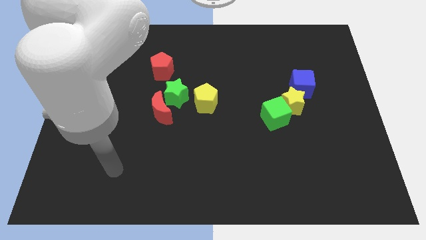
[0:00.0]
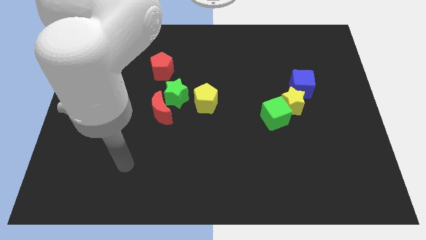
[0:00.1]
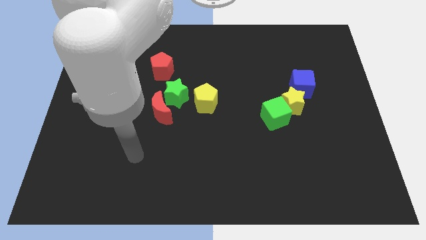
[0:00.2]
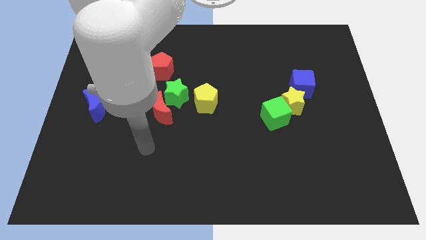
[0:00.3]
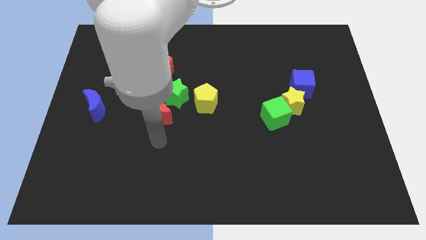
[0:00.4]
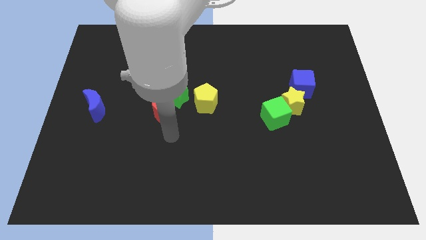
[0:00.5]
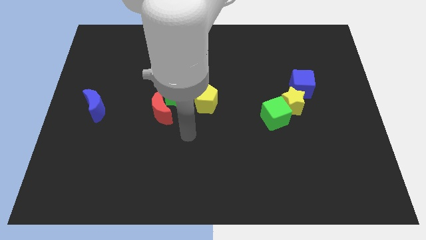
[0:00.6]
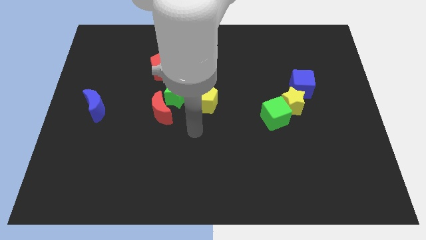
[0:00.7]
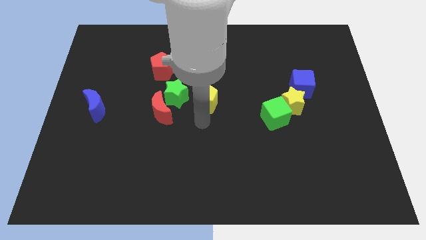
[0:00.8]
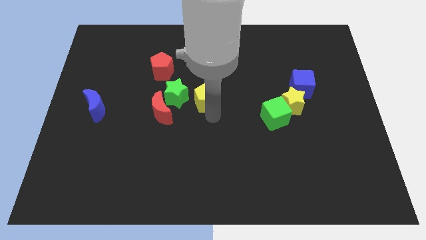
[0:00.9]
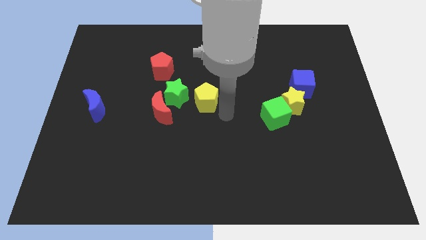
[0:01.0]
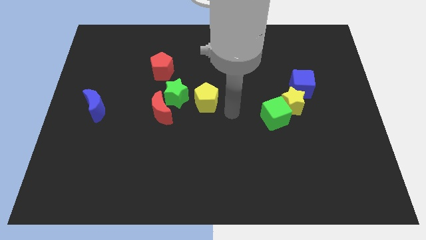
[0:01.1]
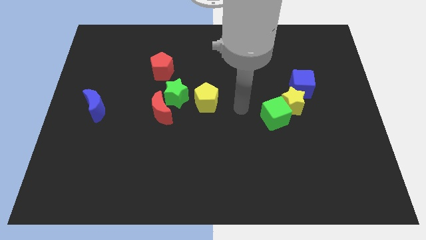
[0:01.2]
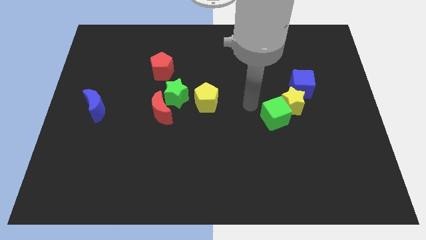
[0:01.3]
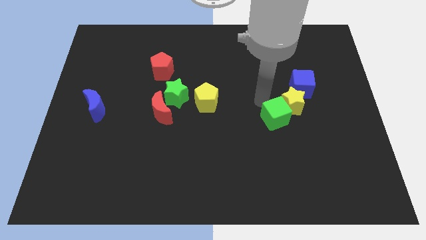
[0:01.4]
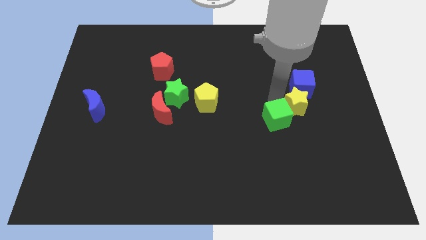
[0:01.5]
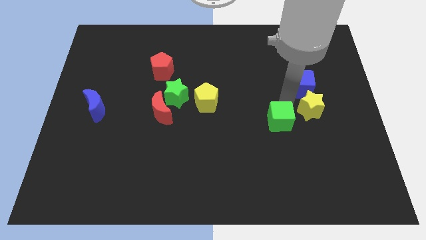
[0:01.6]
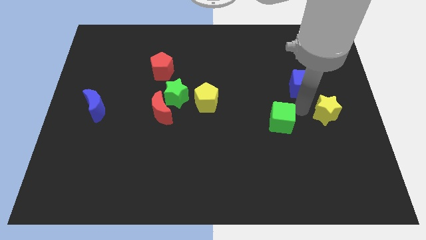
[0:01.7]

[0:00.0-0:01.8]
separate the green cube from the yellow star

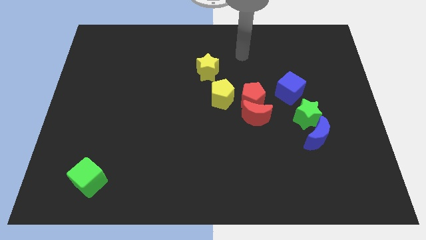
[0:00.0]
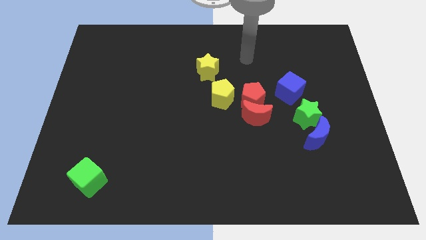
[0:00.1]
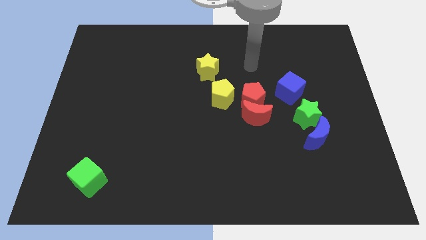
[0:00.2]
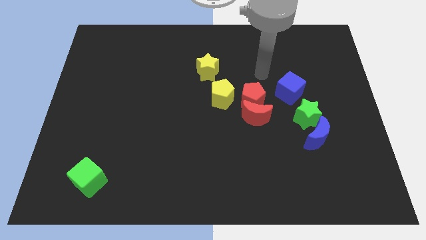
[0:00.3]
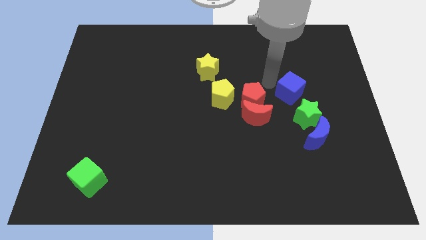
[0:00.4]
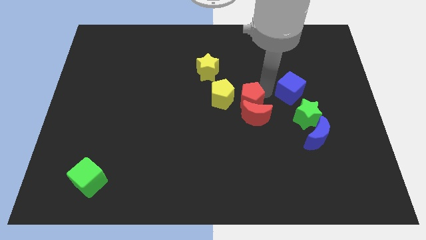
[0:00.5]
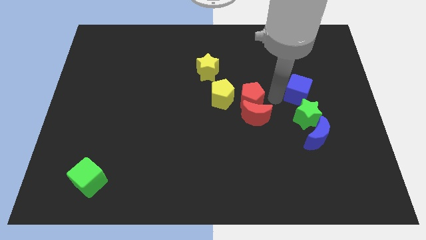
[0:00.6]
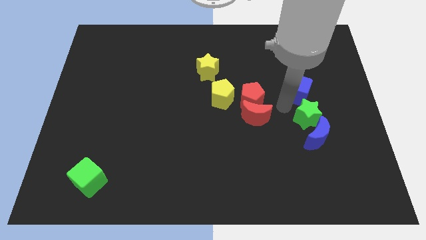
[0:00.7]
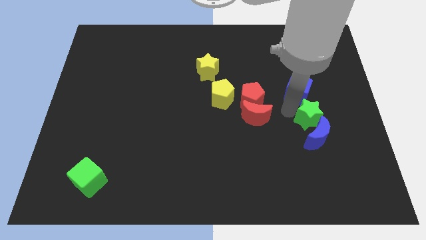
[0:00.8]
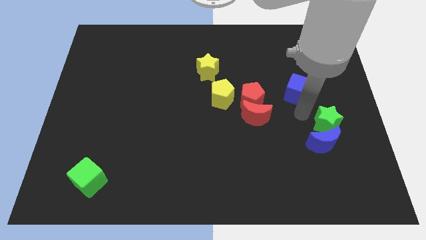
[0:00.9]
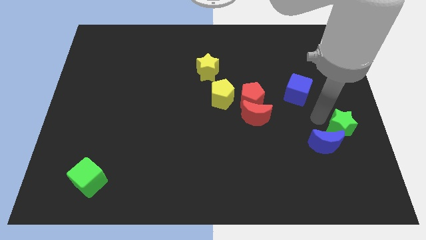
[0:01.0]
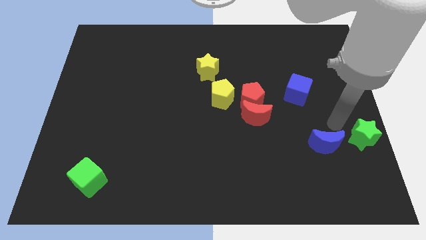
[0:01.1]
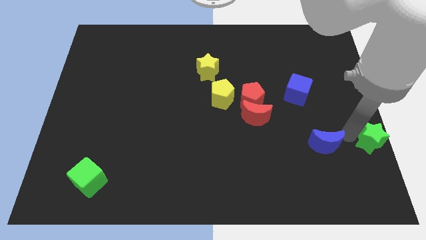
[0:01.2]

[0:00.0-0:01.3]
pull the blue moon apart from the green star

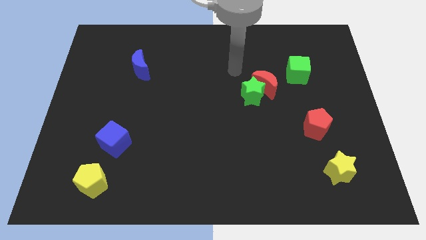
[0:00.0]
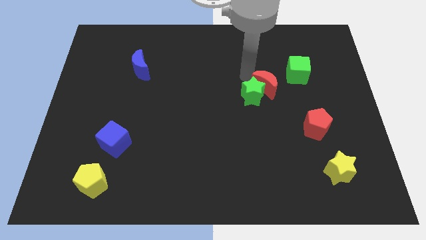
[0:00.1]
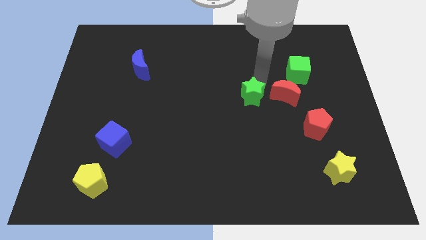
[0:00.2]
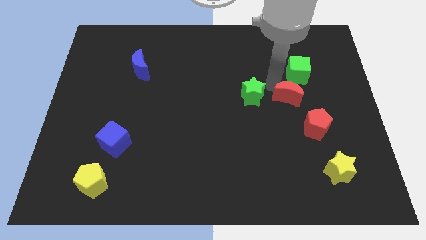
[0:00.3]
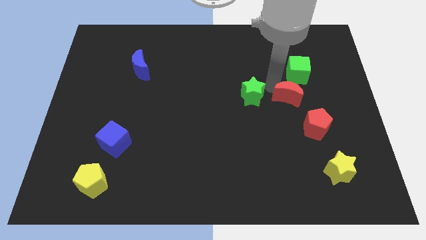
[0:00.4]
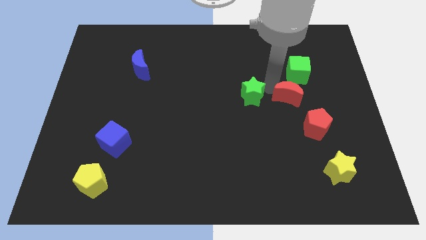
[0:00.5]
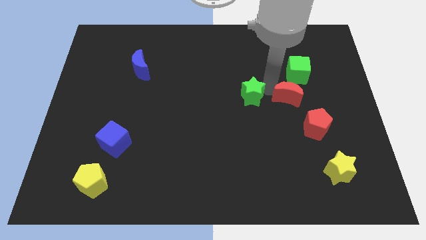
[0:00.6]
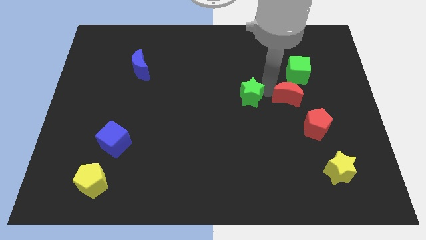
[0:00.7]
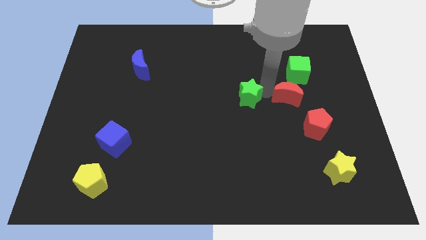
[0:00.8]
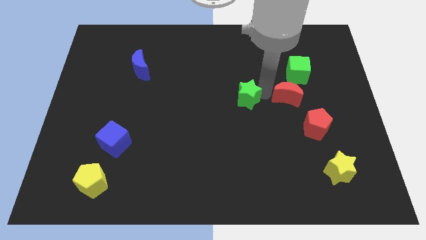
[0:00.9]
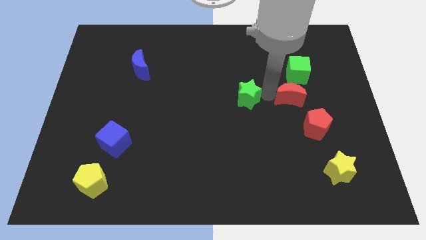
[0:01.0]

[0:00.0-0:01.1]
move the green star away from the red moon

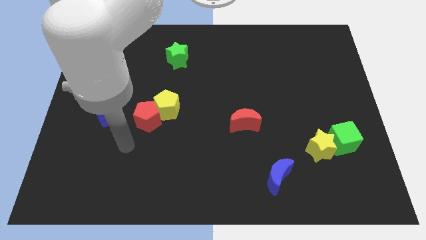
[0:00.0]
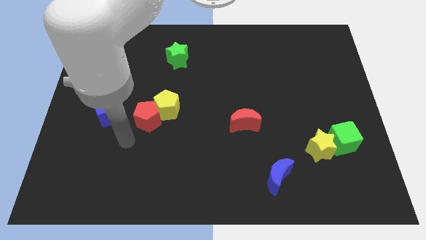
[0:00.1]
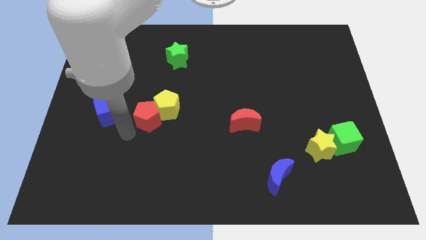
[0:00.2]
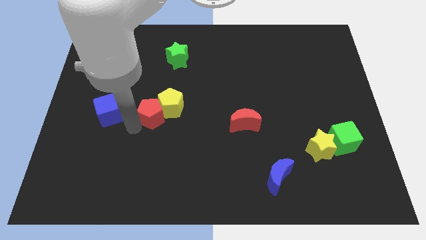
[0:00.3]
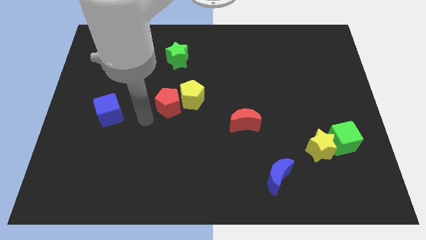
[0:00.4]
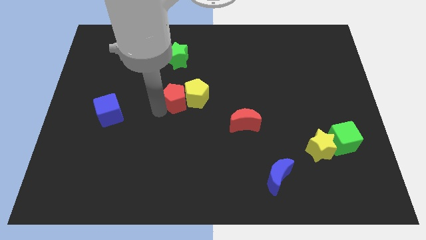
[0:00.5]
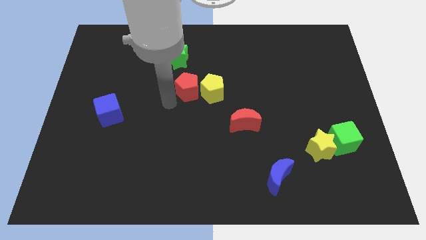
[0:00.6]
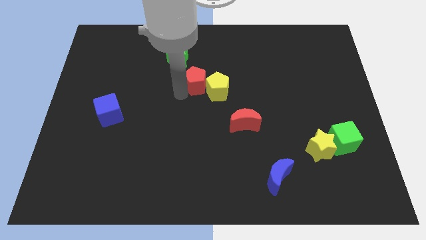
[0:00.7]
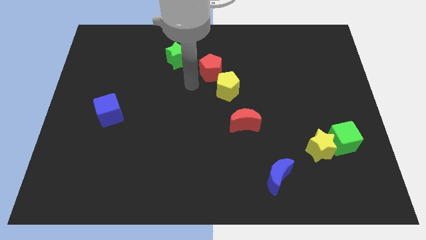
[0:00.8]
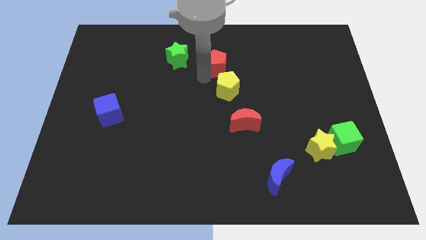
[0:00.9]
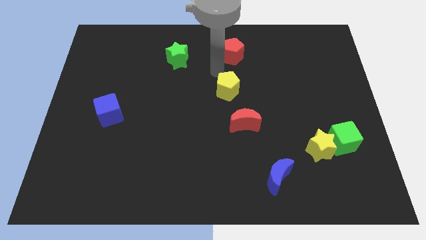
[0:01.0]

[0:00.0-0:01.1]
pull the yellow pentagon apart from the red pentagon

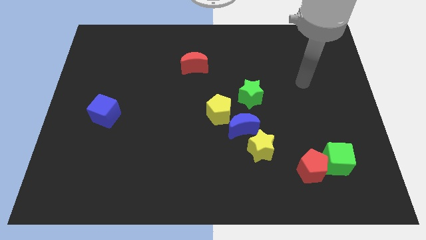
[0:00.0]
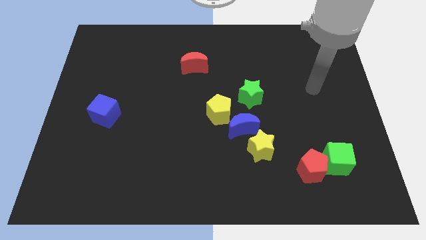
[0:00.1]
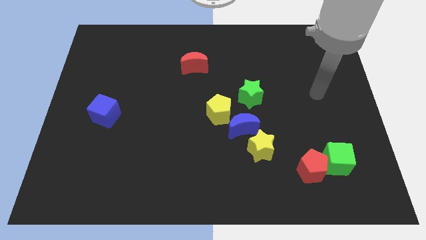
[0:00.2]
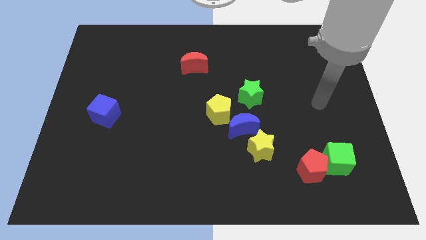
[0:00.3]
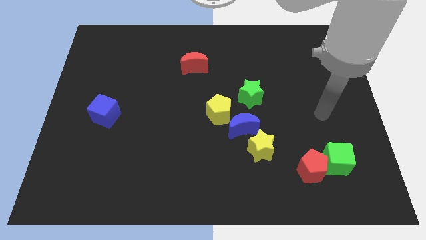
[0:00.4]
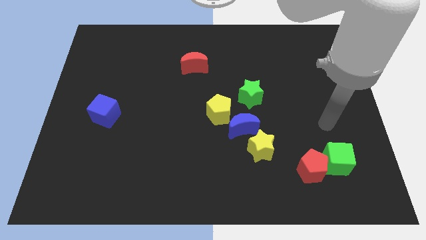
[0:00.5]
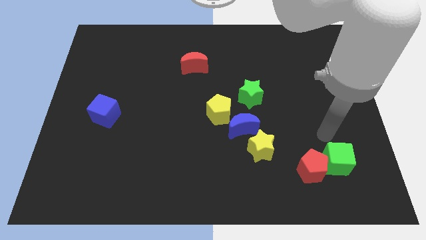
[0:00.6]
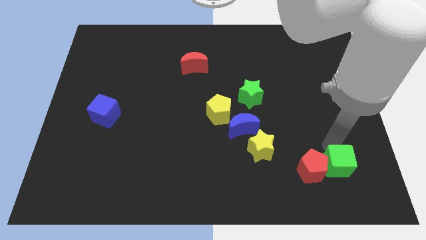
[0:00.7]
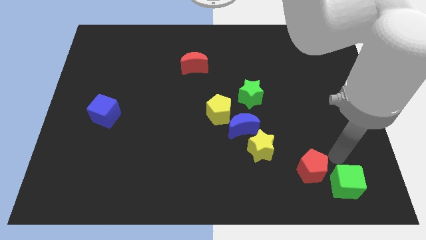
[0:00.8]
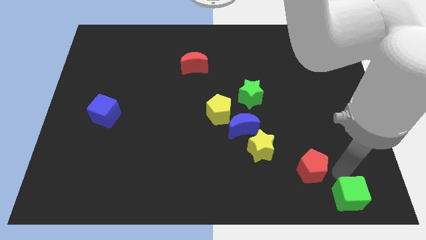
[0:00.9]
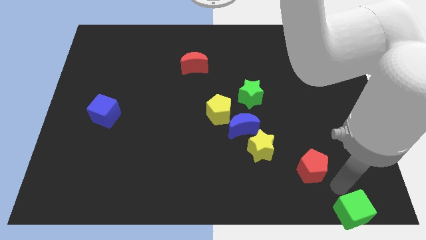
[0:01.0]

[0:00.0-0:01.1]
pull the red pentagon apart from the green cube

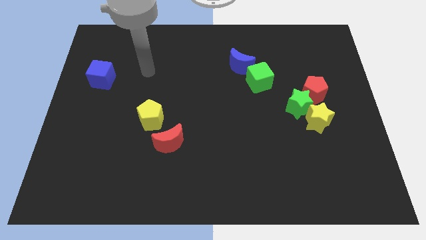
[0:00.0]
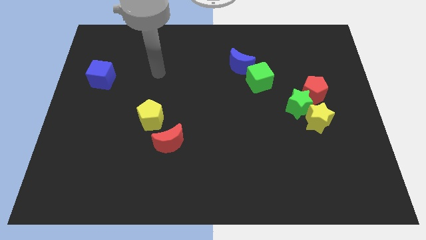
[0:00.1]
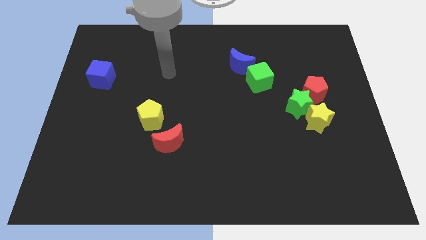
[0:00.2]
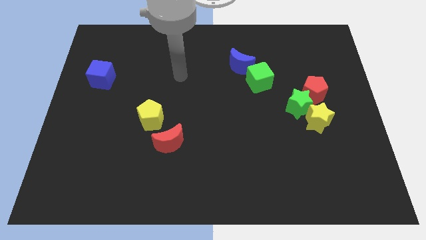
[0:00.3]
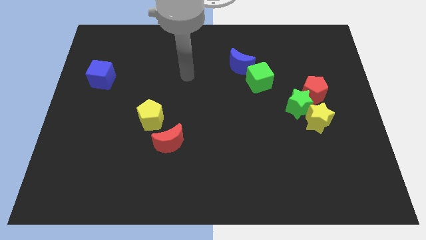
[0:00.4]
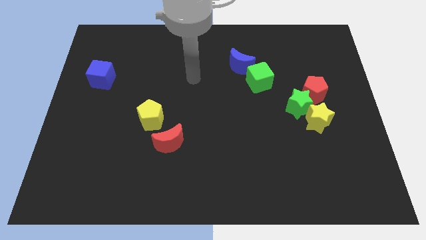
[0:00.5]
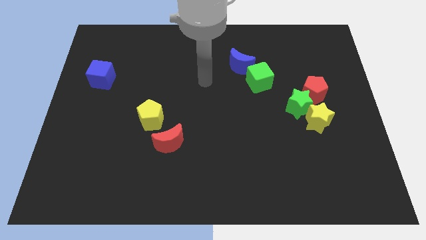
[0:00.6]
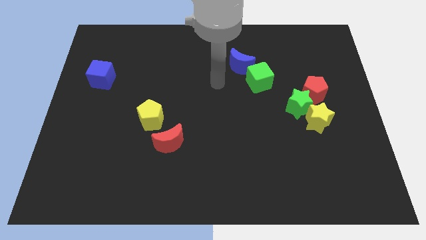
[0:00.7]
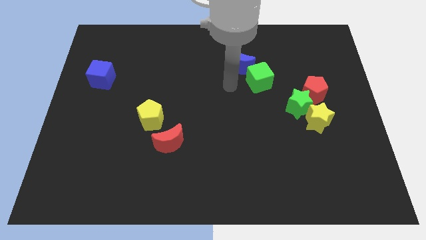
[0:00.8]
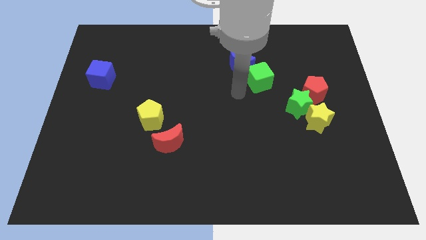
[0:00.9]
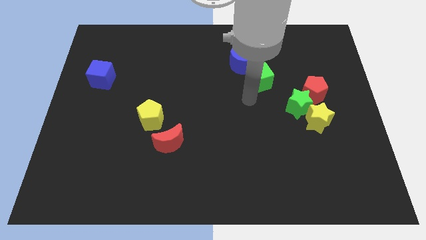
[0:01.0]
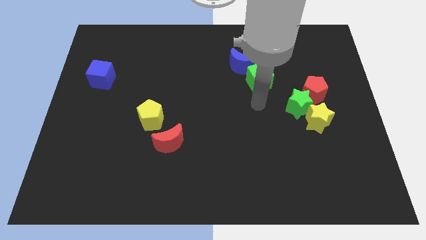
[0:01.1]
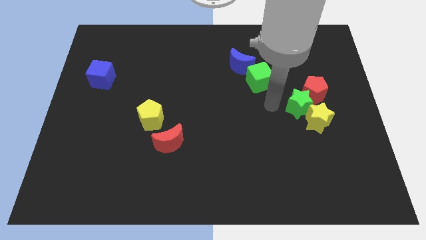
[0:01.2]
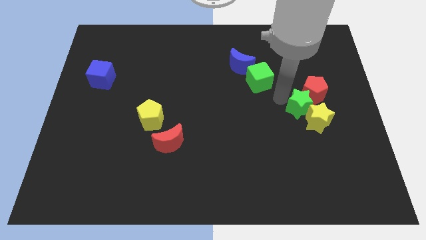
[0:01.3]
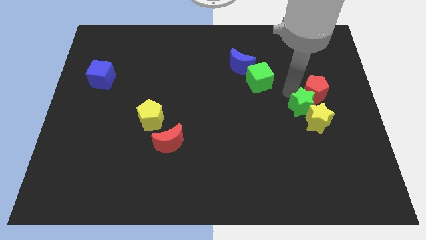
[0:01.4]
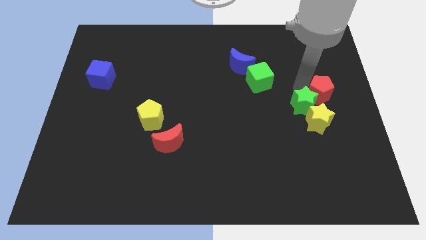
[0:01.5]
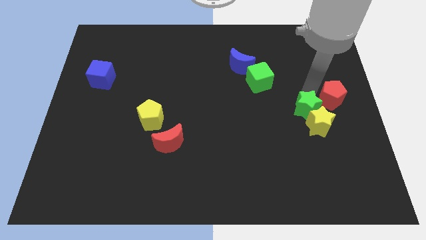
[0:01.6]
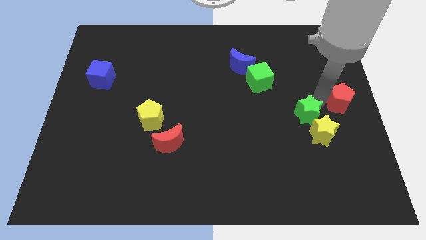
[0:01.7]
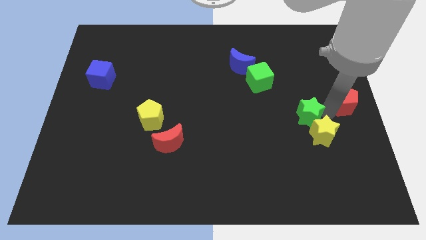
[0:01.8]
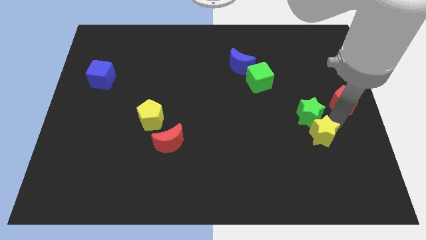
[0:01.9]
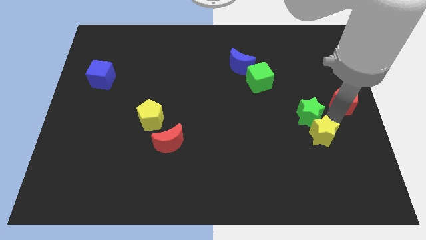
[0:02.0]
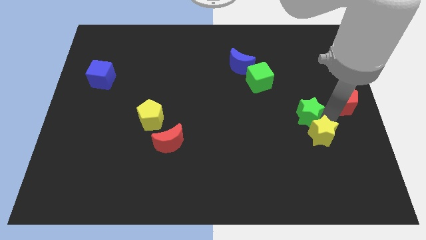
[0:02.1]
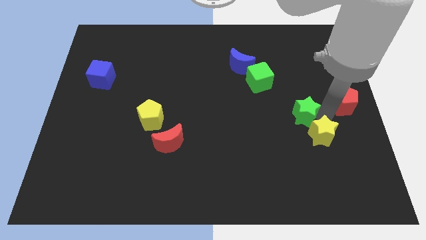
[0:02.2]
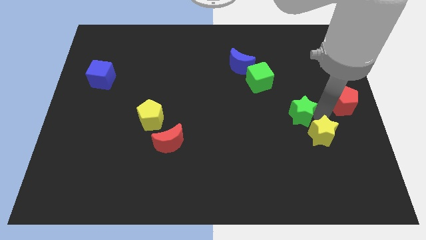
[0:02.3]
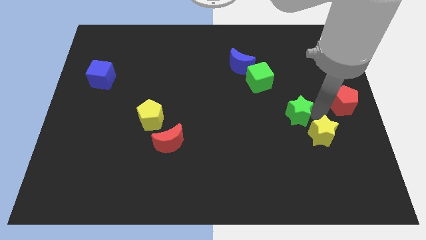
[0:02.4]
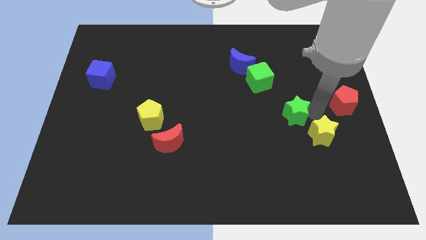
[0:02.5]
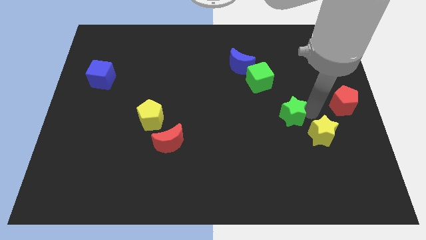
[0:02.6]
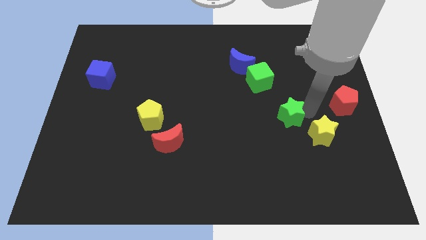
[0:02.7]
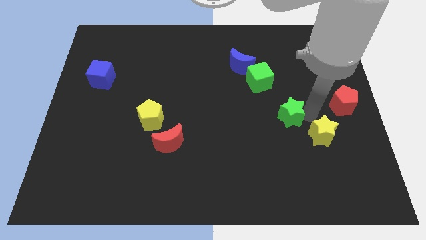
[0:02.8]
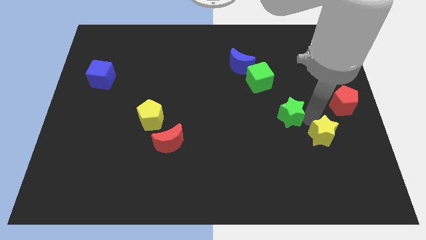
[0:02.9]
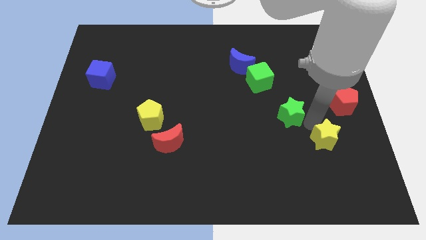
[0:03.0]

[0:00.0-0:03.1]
move the green star away from the yellow star and red pentagon
